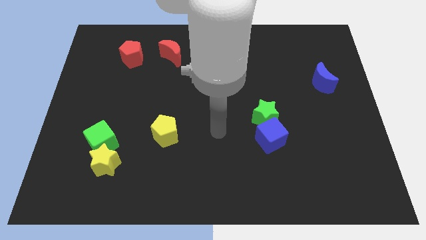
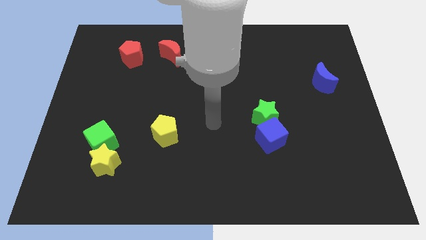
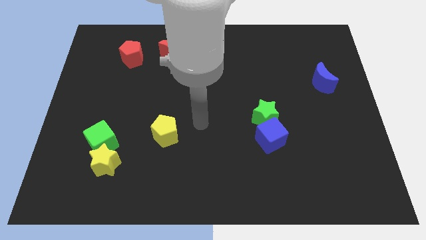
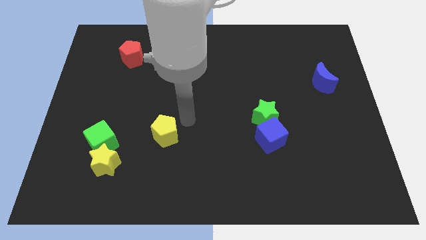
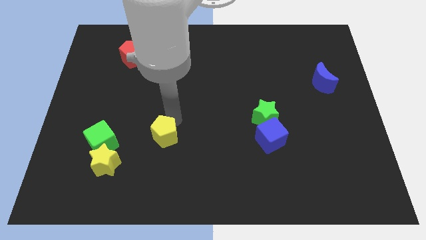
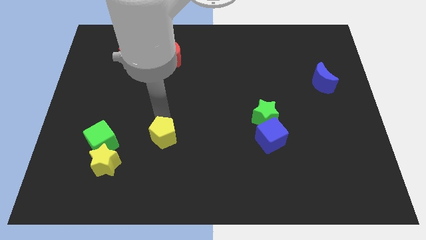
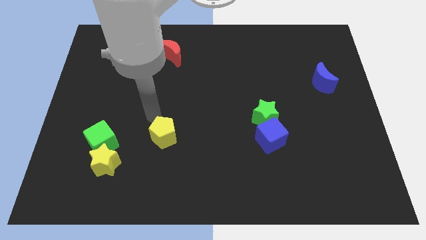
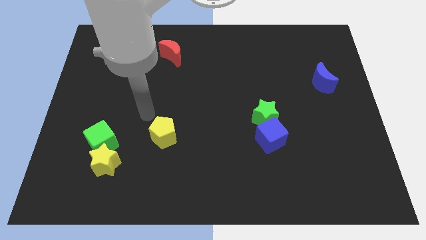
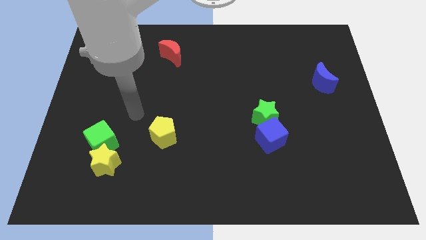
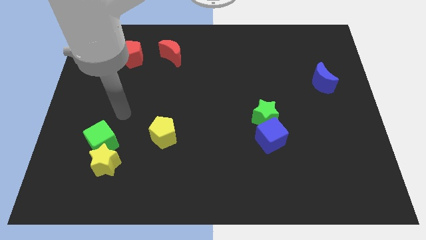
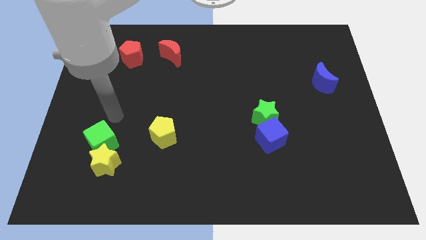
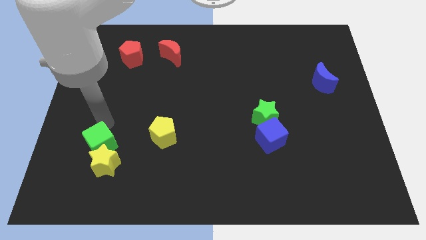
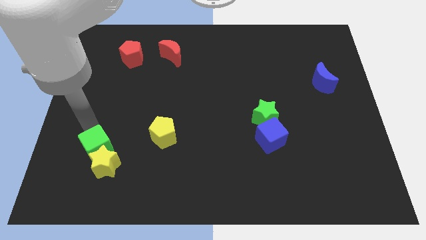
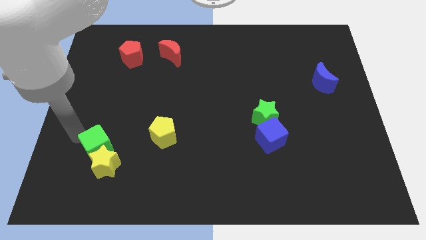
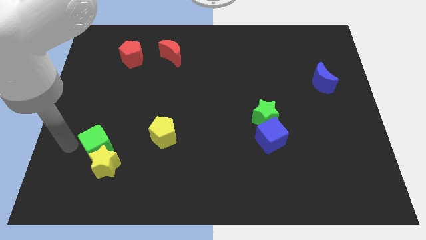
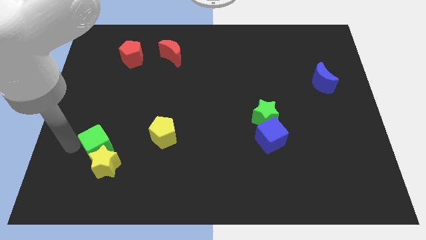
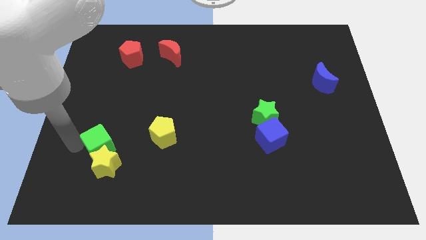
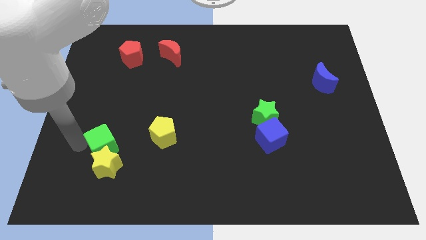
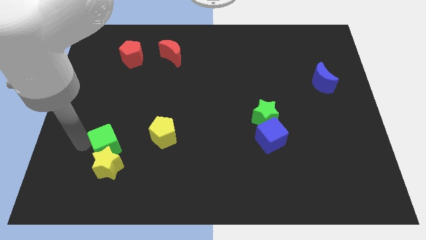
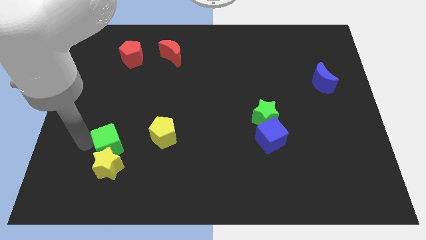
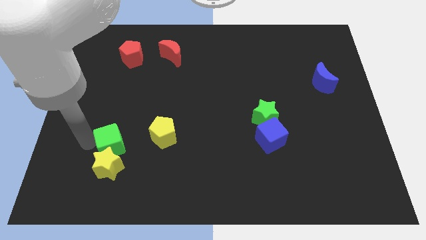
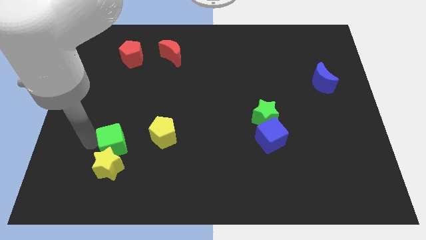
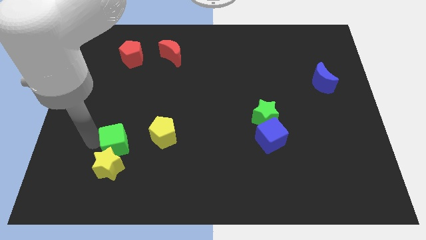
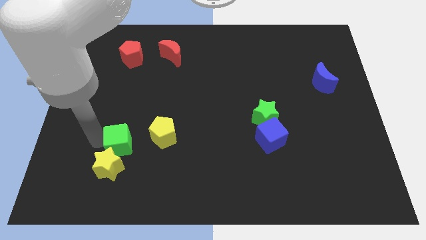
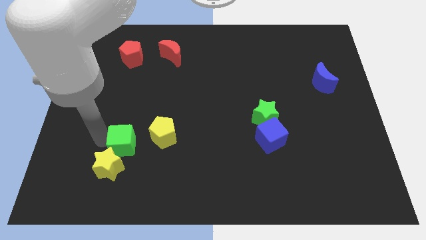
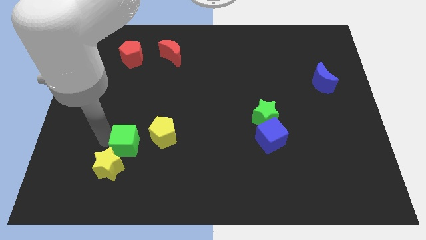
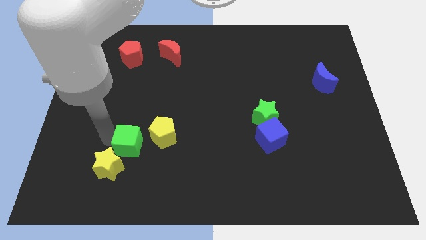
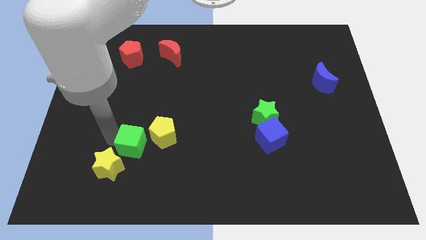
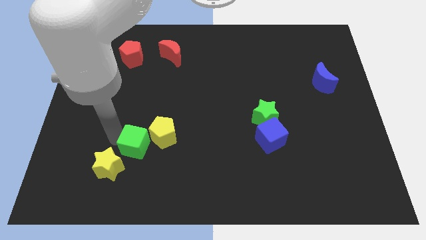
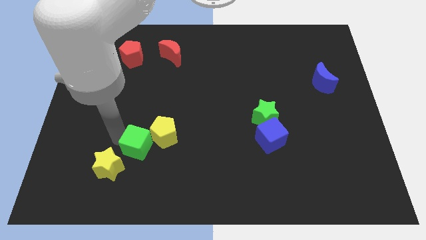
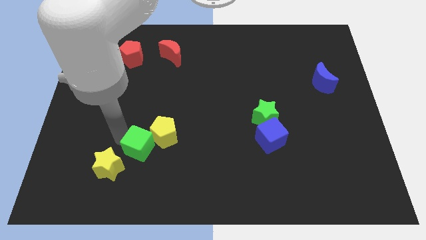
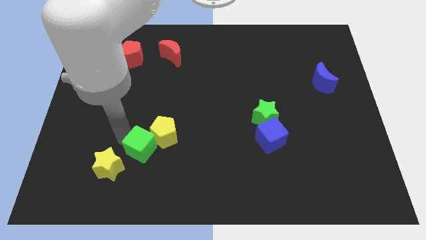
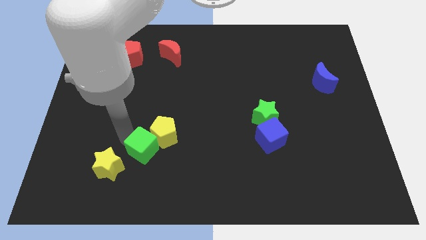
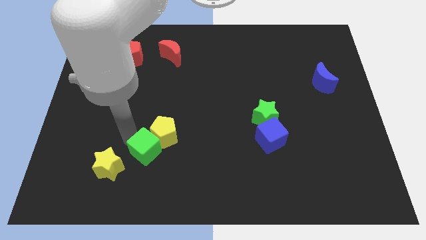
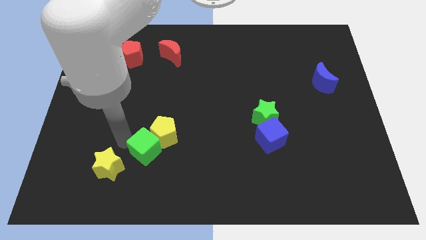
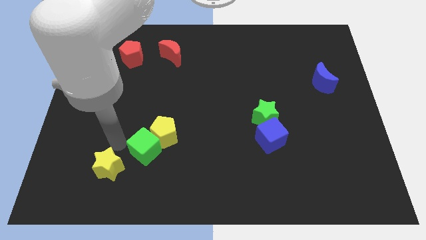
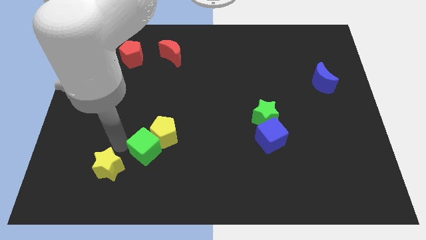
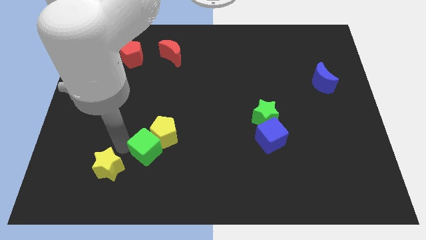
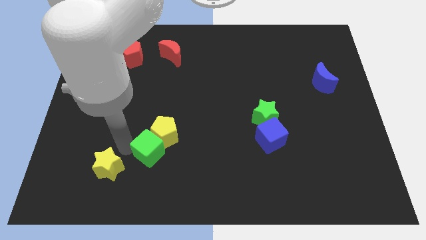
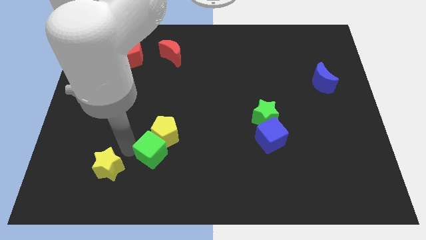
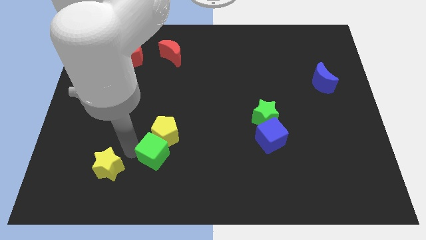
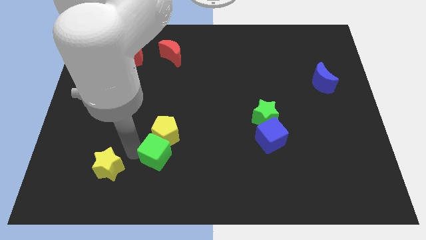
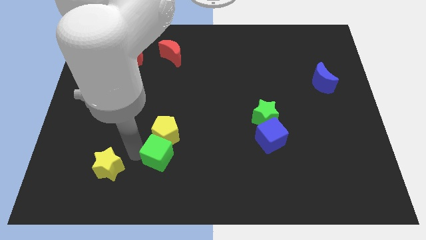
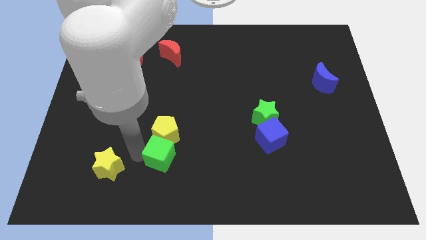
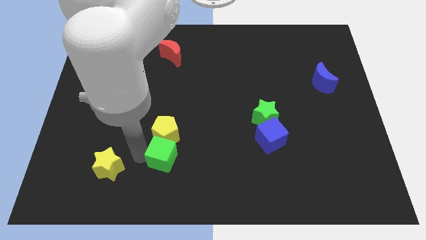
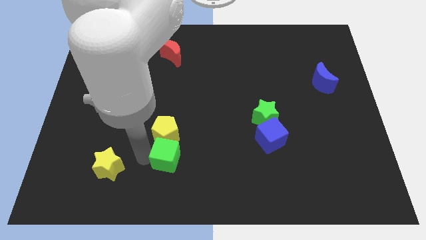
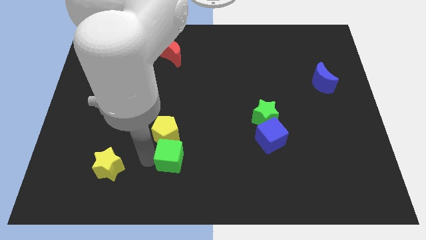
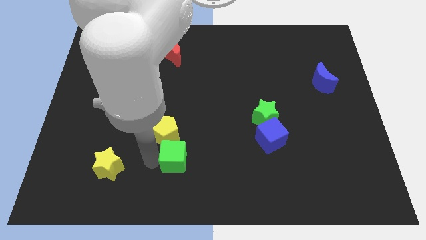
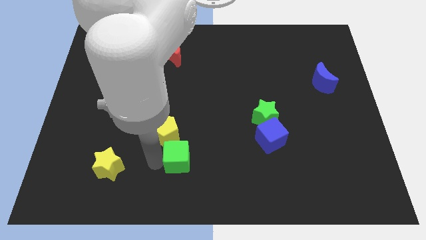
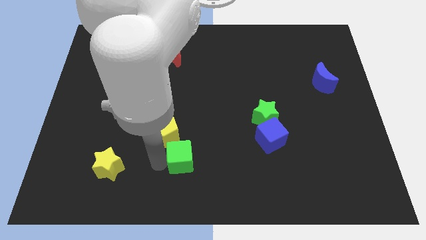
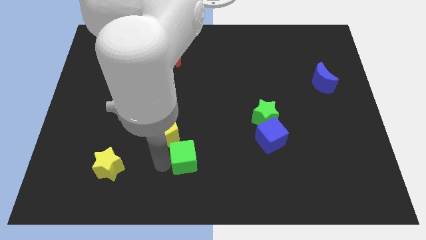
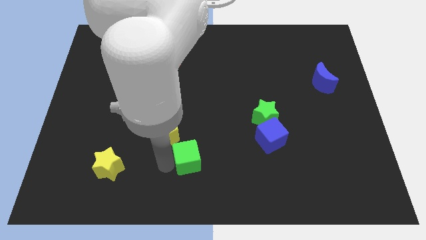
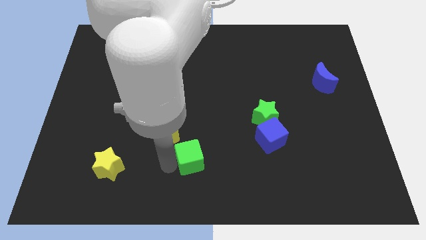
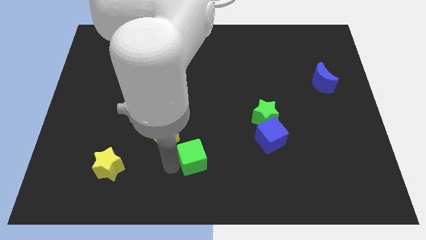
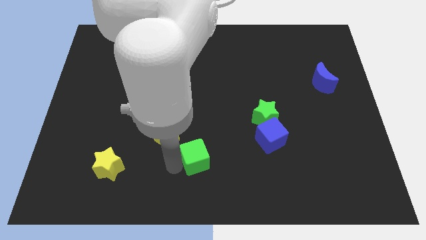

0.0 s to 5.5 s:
slide the green cube to the right

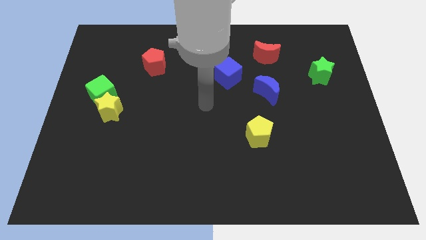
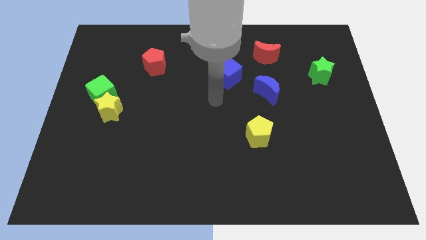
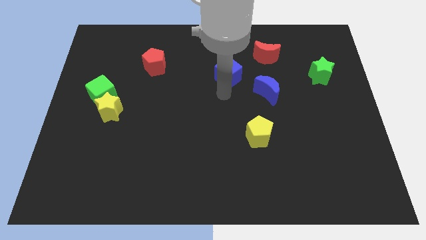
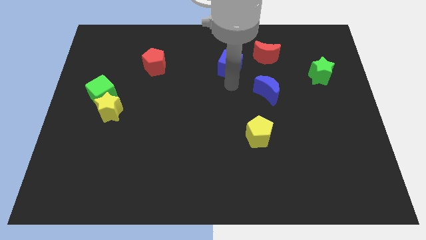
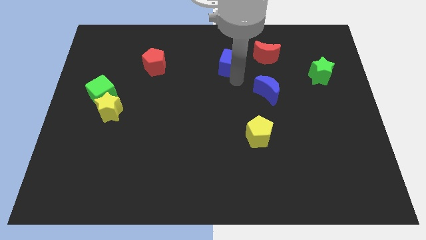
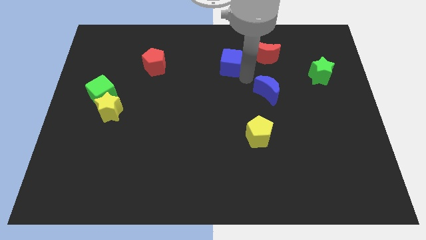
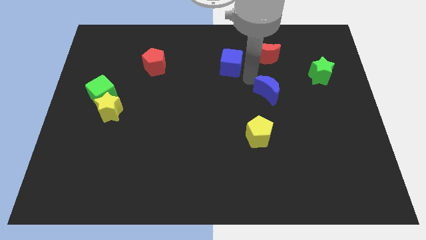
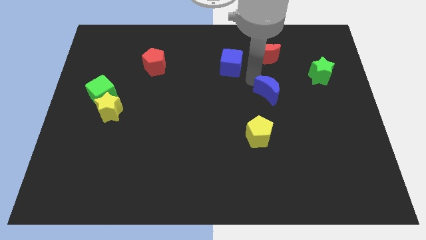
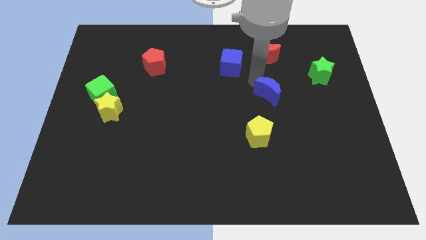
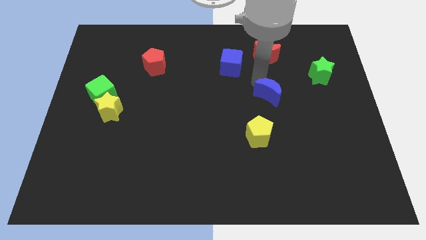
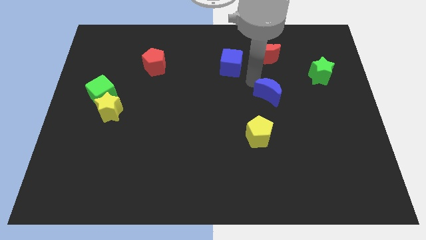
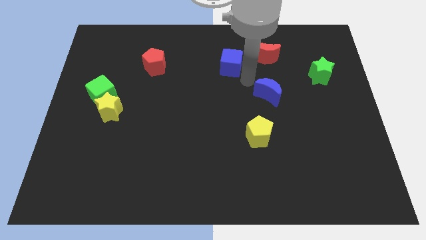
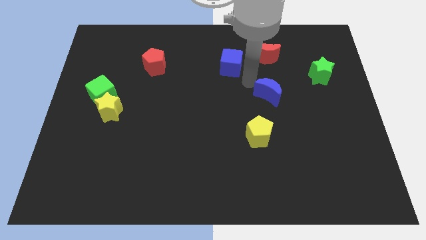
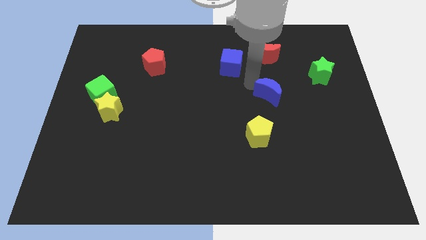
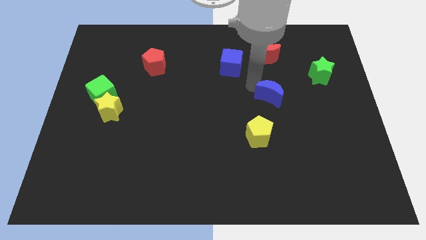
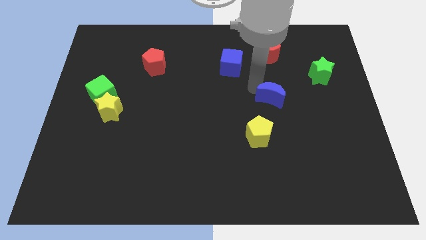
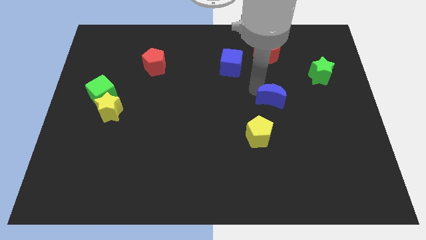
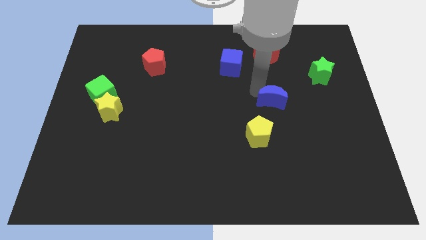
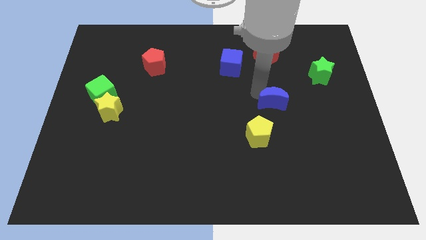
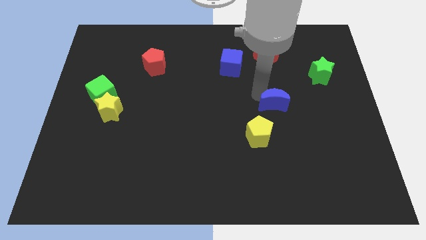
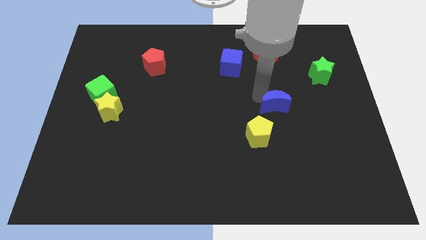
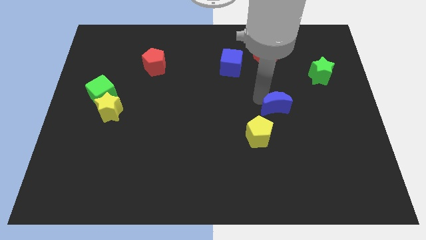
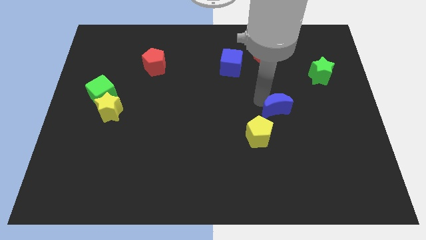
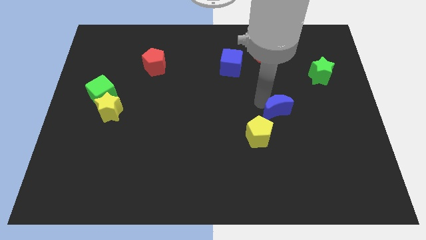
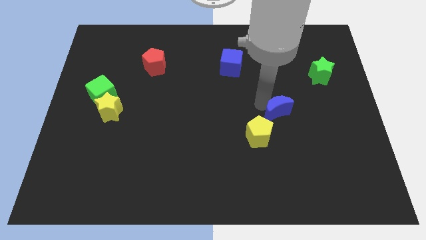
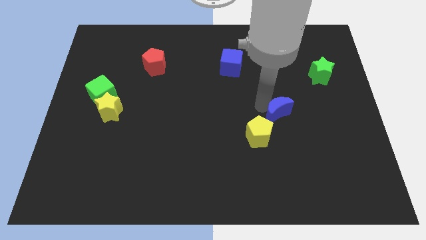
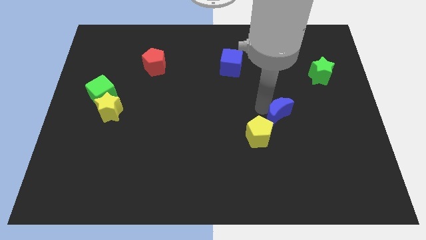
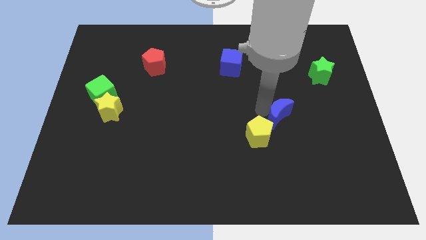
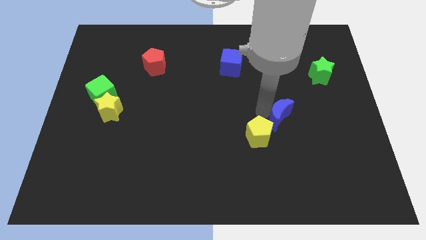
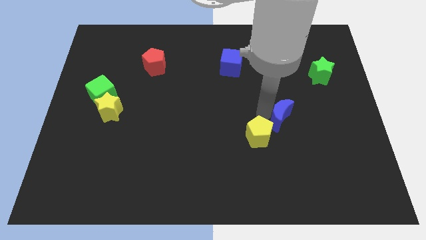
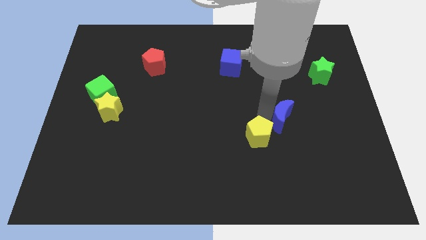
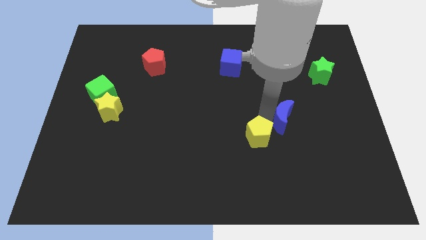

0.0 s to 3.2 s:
push the blue moon somewhat down and then to the right
